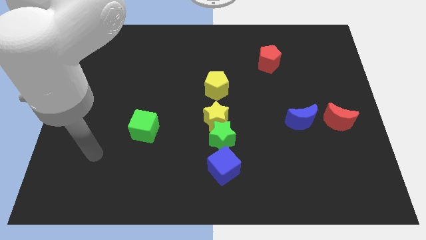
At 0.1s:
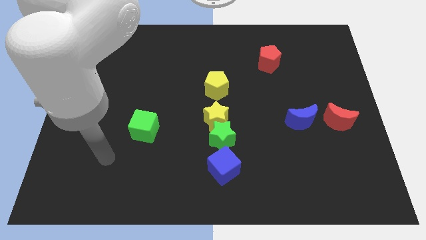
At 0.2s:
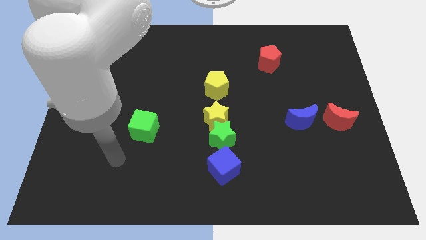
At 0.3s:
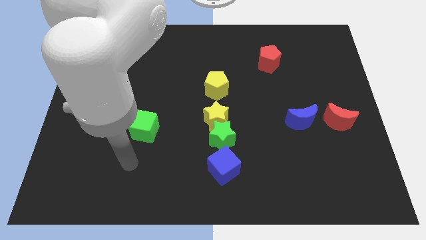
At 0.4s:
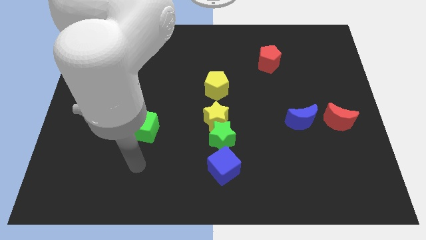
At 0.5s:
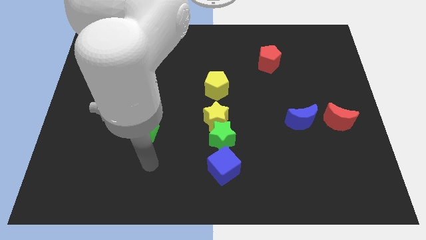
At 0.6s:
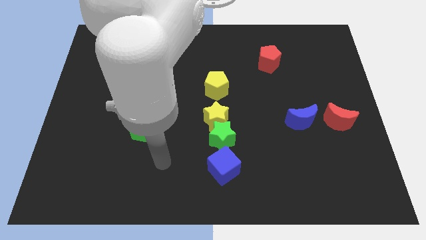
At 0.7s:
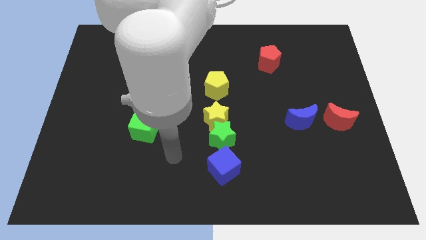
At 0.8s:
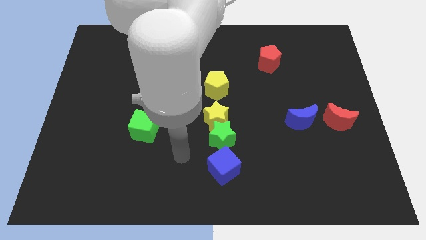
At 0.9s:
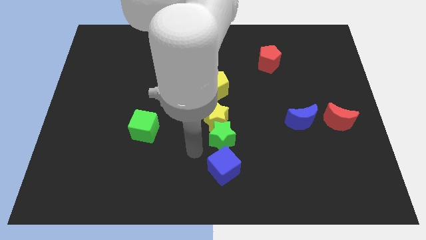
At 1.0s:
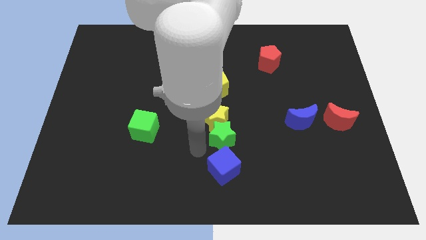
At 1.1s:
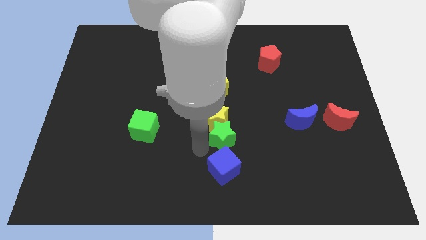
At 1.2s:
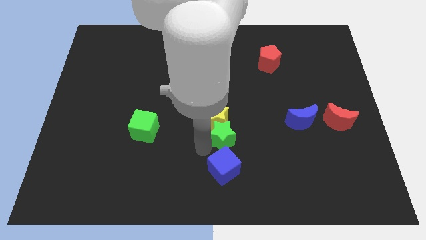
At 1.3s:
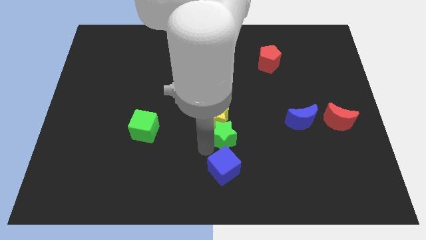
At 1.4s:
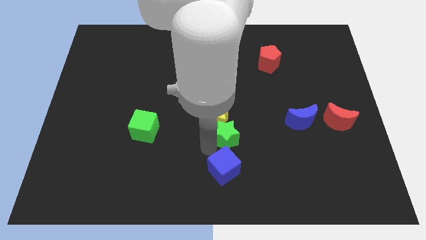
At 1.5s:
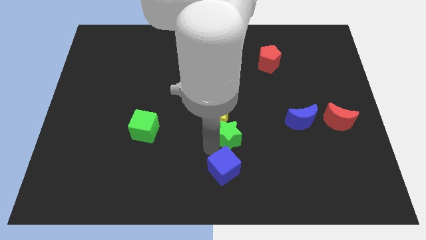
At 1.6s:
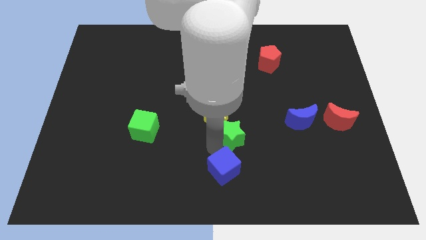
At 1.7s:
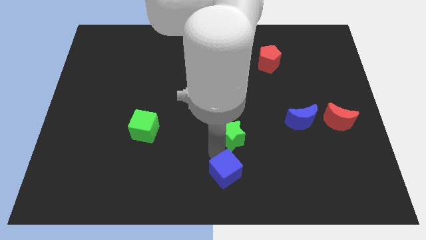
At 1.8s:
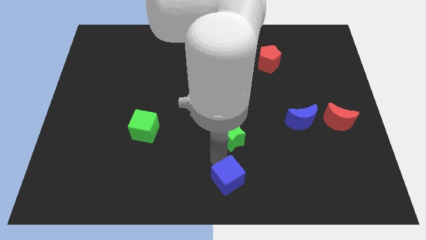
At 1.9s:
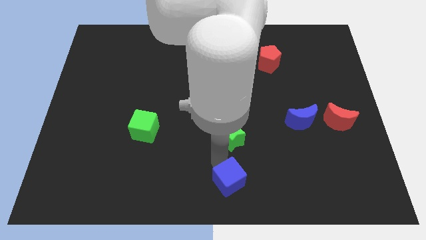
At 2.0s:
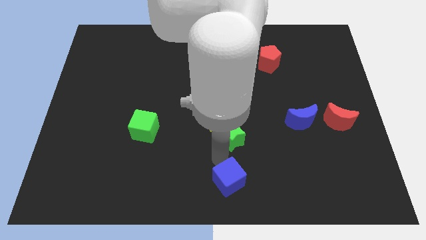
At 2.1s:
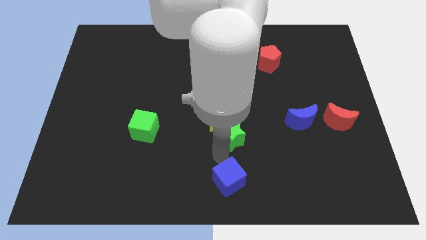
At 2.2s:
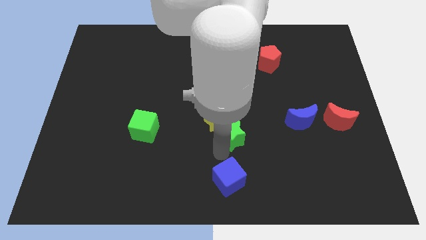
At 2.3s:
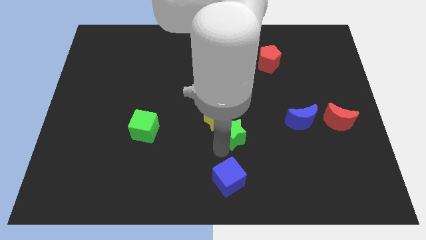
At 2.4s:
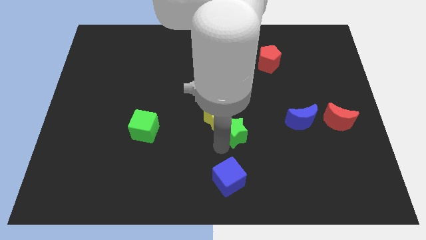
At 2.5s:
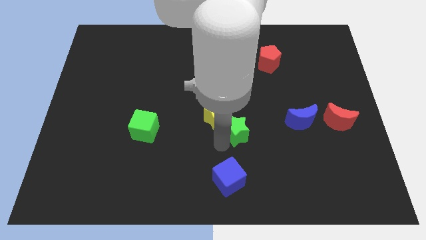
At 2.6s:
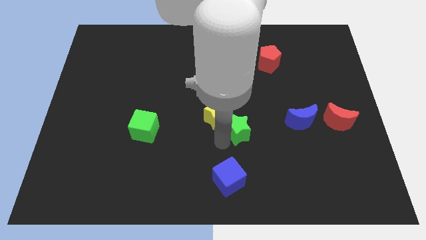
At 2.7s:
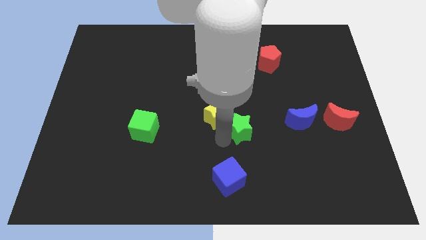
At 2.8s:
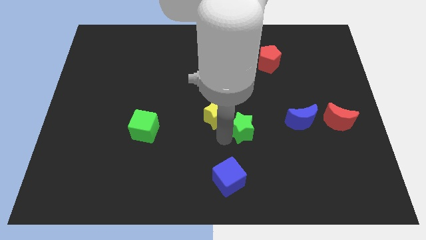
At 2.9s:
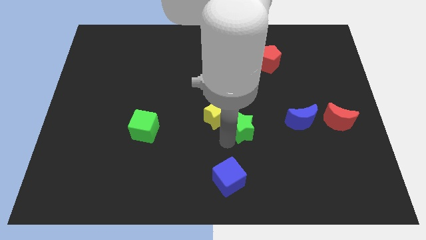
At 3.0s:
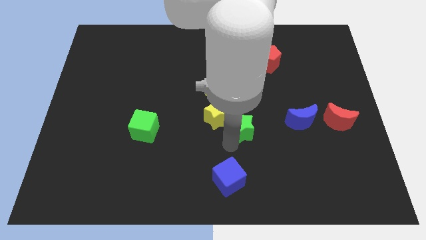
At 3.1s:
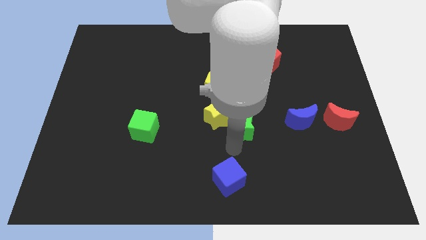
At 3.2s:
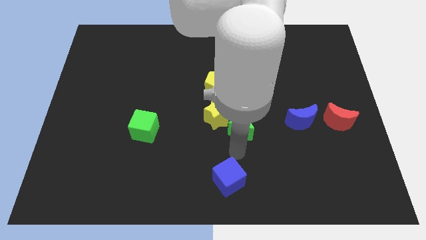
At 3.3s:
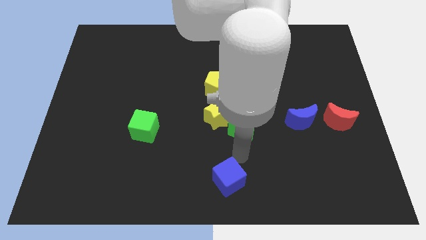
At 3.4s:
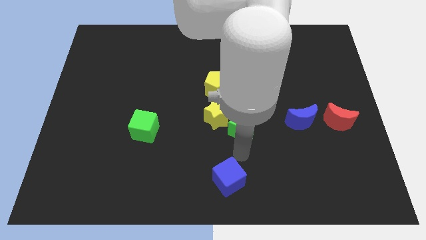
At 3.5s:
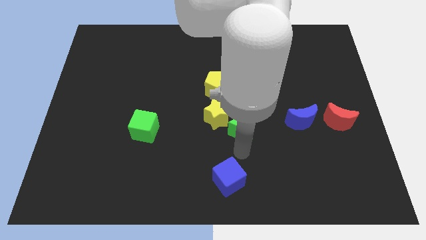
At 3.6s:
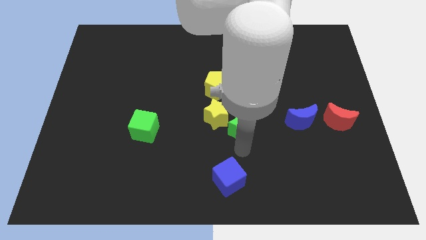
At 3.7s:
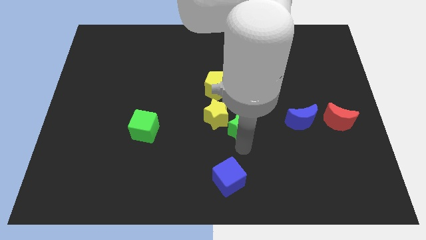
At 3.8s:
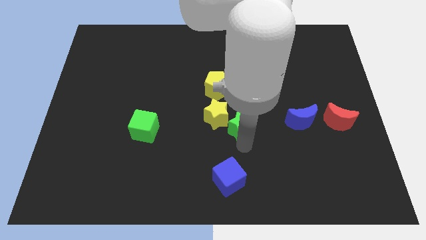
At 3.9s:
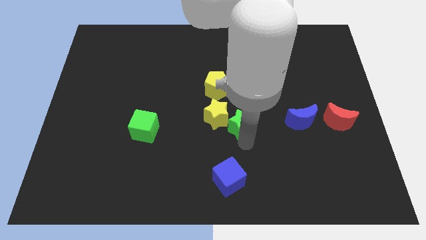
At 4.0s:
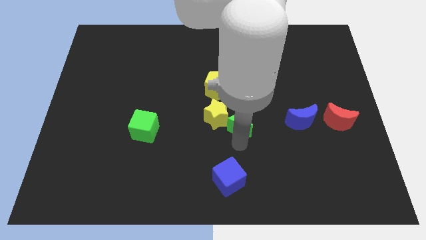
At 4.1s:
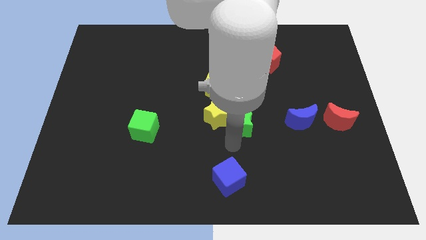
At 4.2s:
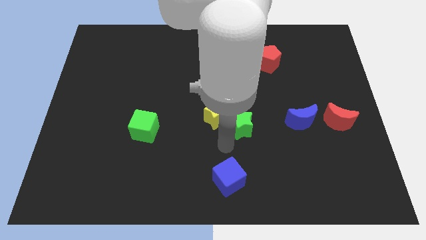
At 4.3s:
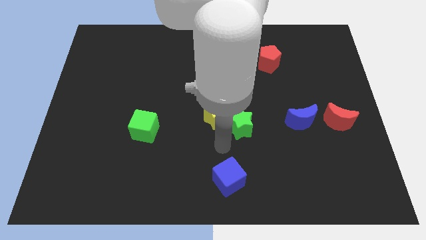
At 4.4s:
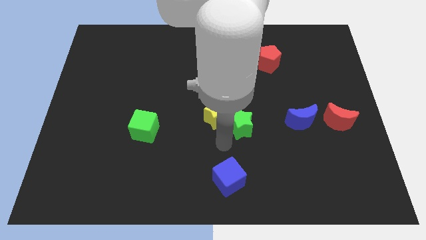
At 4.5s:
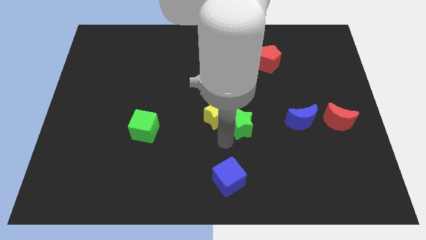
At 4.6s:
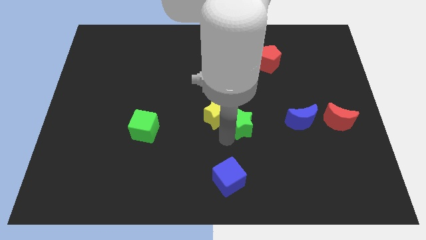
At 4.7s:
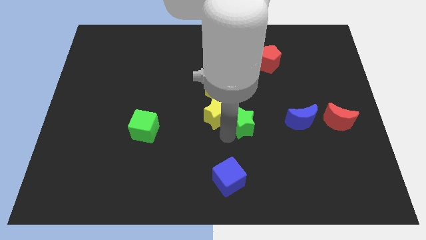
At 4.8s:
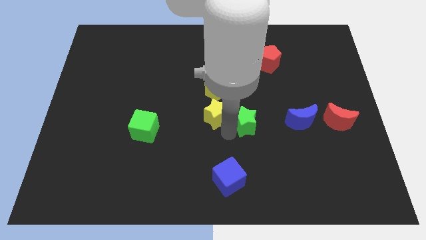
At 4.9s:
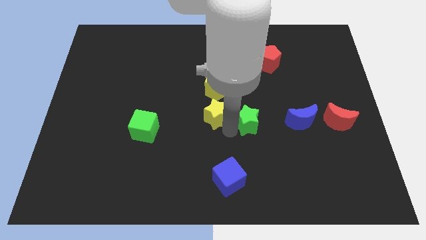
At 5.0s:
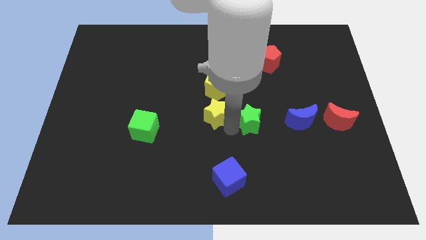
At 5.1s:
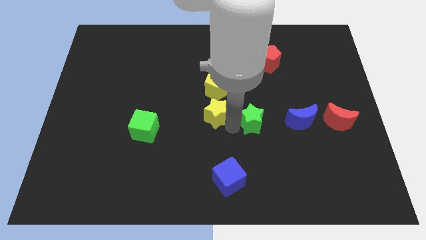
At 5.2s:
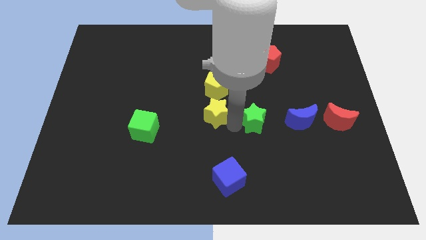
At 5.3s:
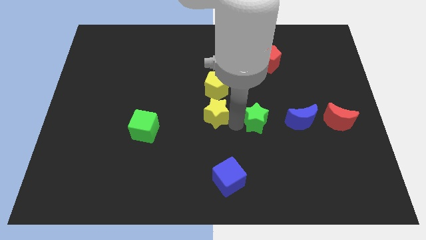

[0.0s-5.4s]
separate the green star from the yellow star and blue cube

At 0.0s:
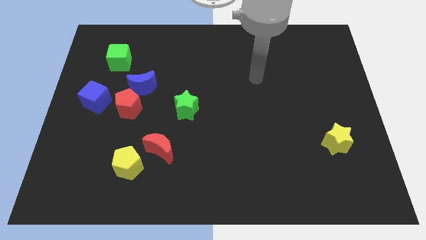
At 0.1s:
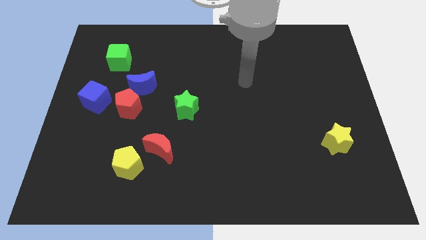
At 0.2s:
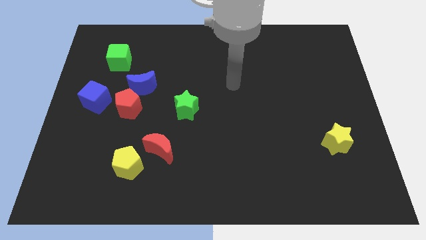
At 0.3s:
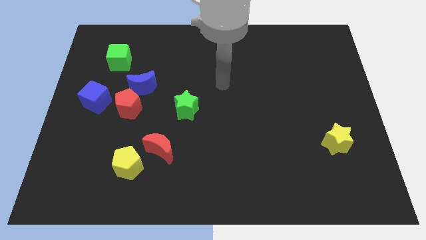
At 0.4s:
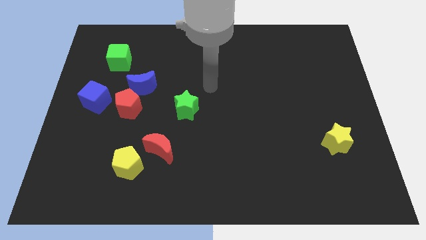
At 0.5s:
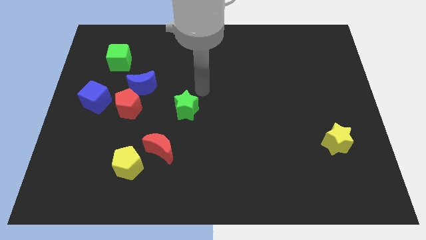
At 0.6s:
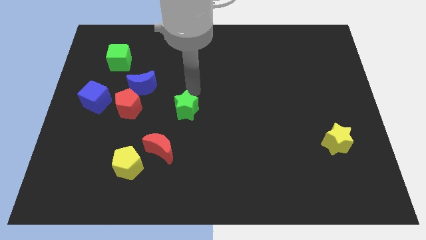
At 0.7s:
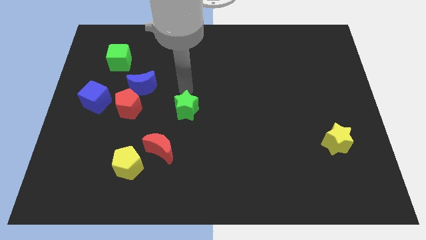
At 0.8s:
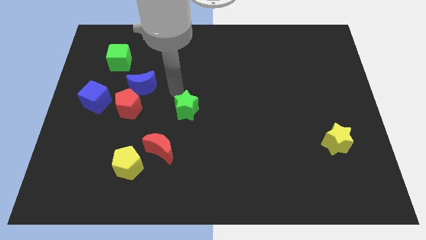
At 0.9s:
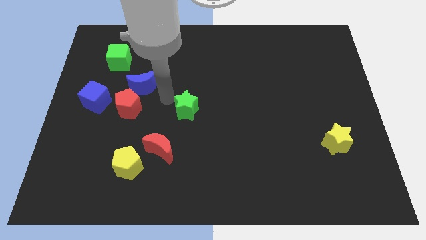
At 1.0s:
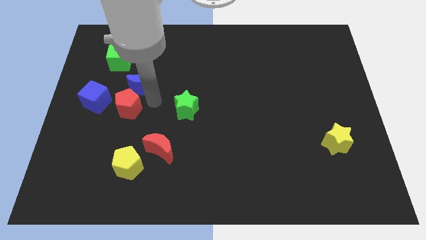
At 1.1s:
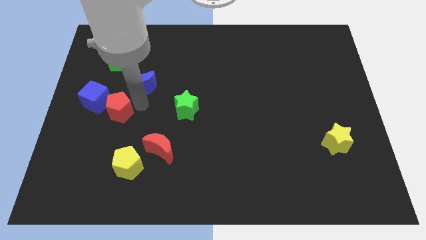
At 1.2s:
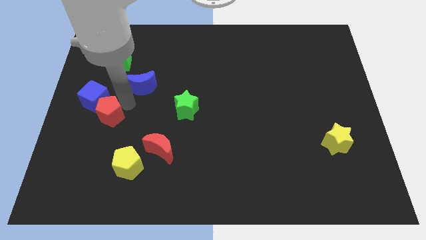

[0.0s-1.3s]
pull the blue moon apart from the red pentagon

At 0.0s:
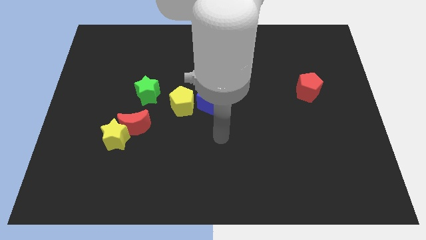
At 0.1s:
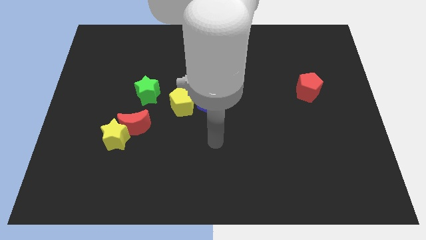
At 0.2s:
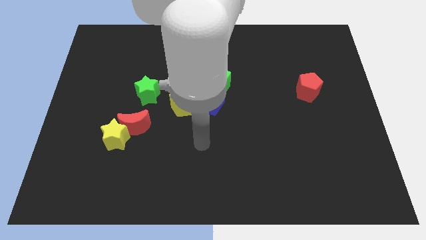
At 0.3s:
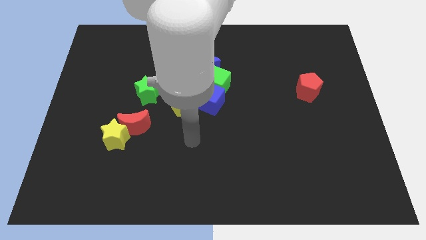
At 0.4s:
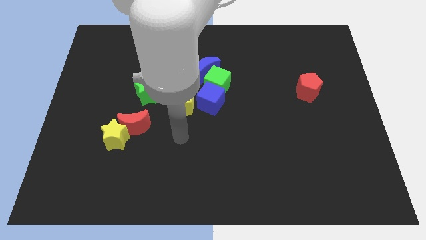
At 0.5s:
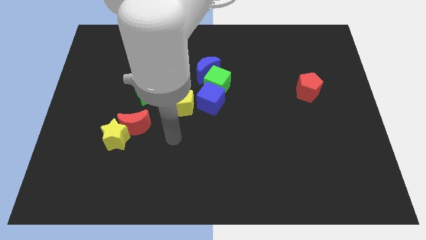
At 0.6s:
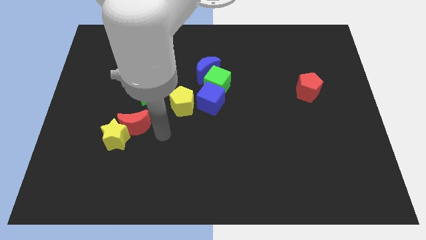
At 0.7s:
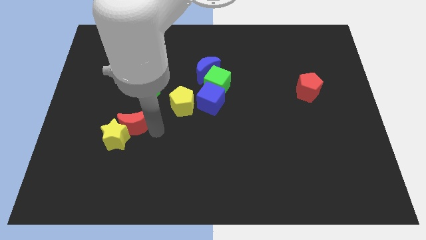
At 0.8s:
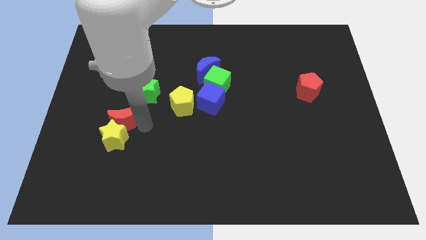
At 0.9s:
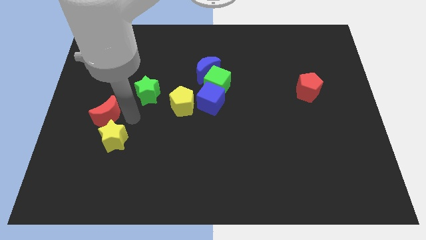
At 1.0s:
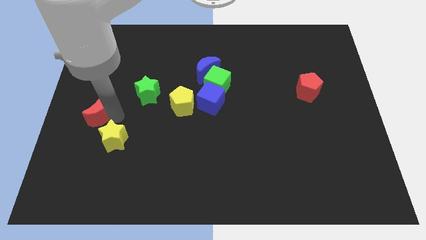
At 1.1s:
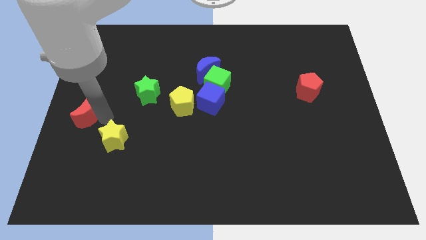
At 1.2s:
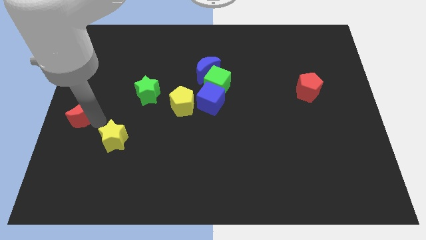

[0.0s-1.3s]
move the yellow star away from the red moon

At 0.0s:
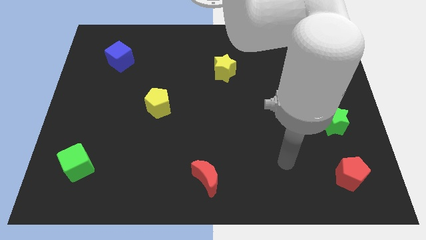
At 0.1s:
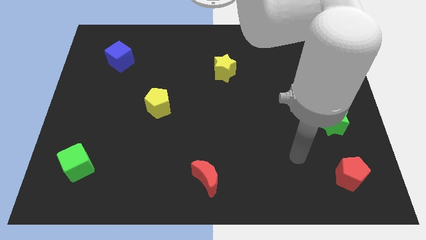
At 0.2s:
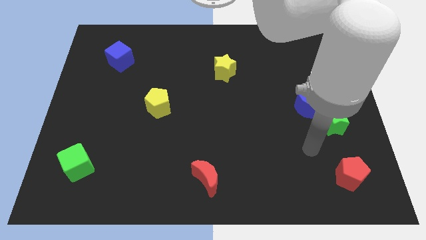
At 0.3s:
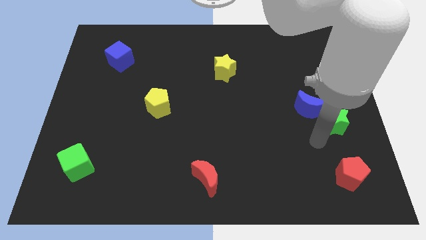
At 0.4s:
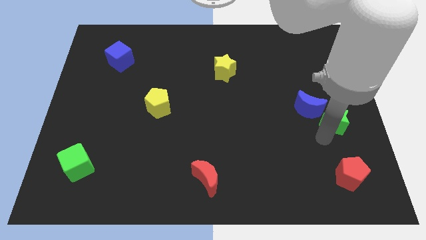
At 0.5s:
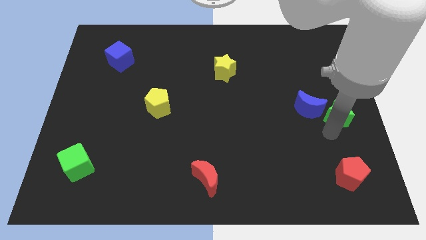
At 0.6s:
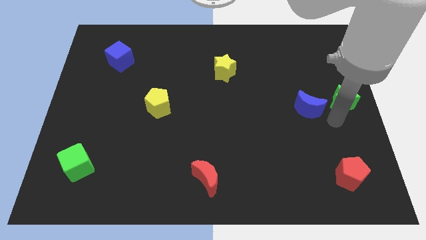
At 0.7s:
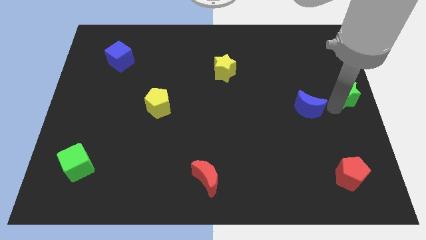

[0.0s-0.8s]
pull the blue moon apart from the green star

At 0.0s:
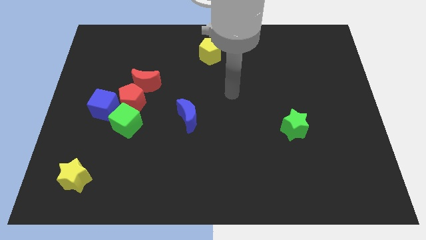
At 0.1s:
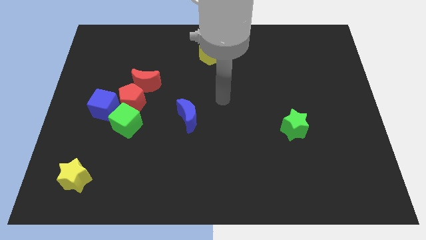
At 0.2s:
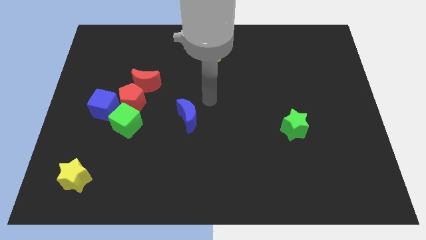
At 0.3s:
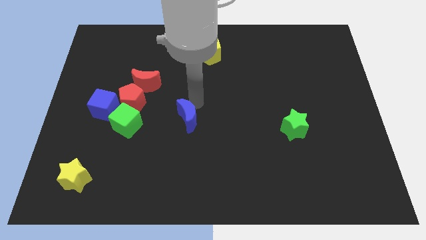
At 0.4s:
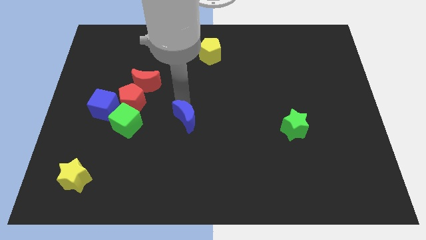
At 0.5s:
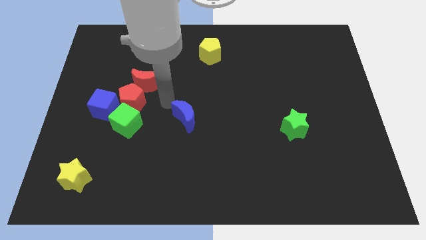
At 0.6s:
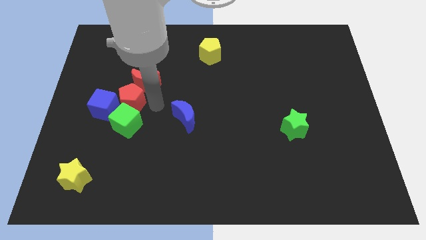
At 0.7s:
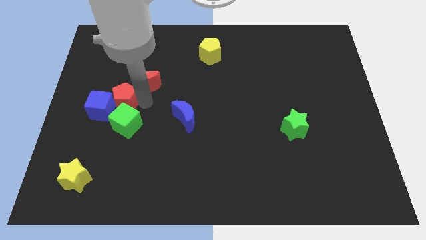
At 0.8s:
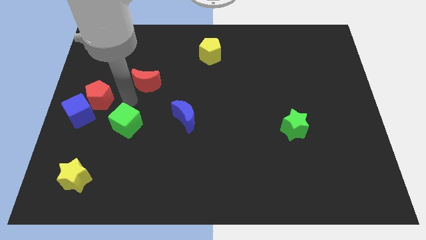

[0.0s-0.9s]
move the red moon away from the red pentagon
